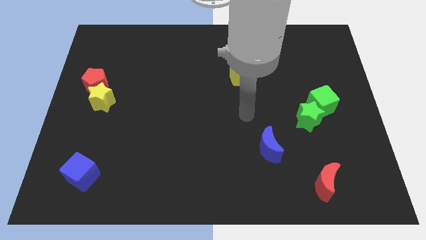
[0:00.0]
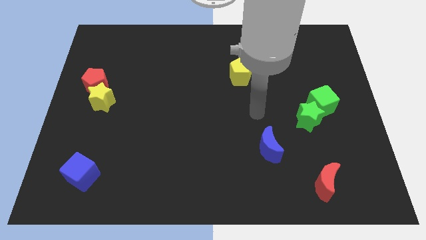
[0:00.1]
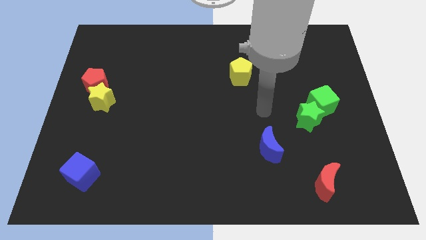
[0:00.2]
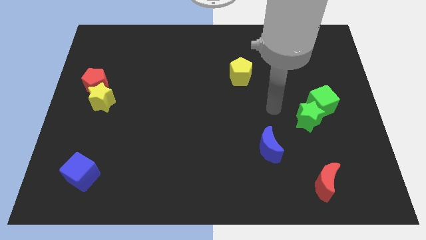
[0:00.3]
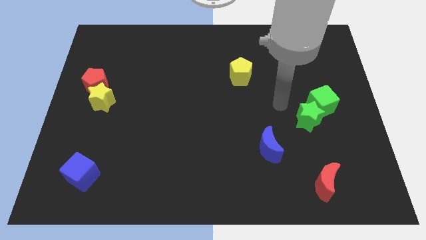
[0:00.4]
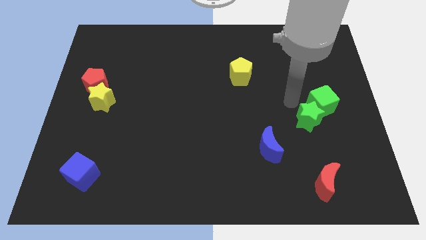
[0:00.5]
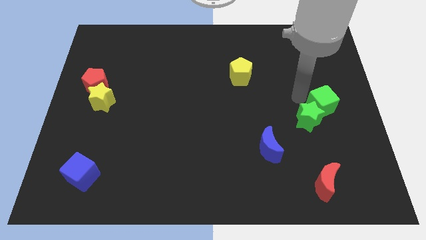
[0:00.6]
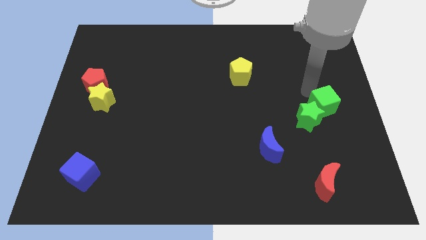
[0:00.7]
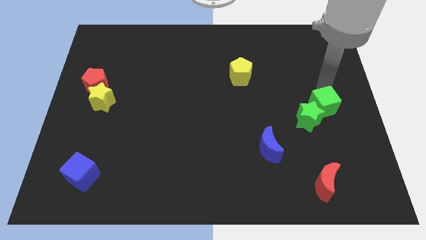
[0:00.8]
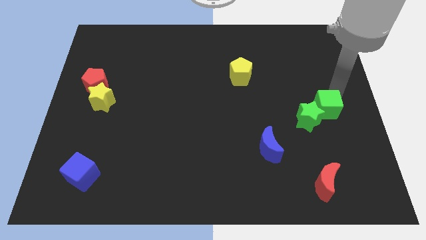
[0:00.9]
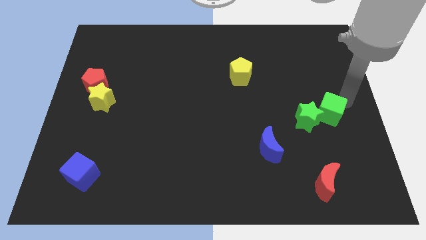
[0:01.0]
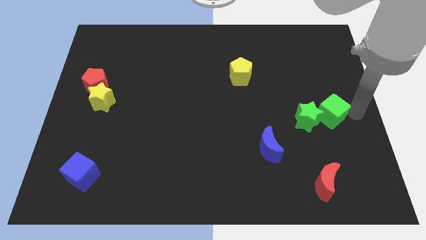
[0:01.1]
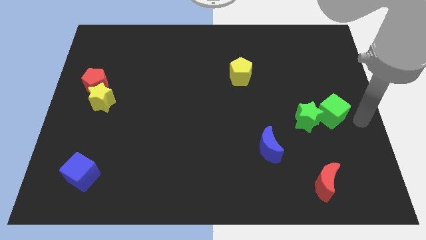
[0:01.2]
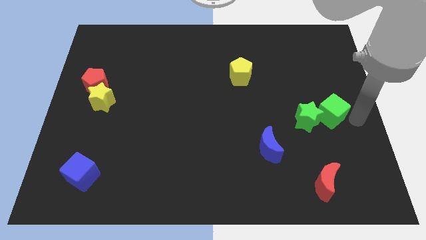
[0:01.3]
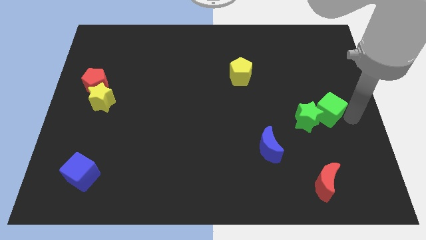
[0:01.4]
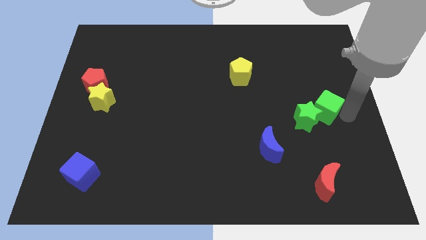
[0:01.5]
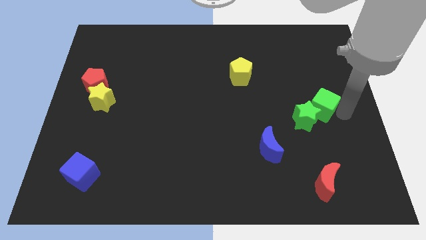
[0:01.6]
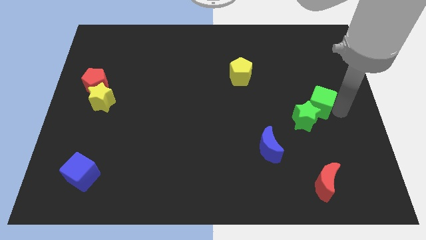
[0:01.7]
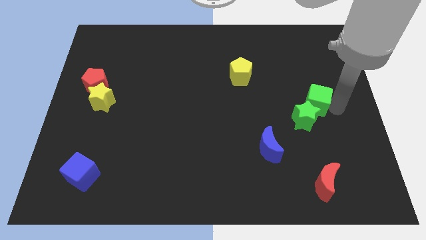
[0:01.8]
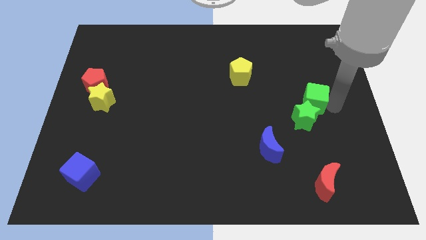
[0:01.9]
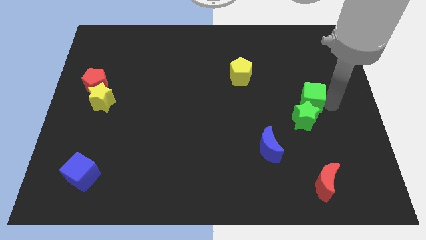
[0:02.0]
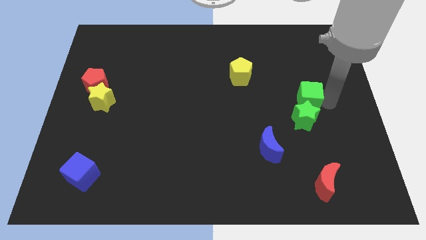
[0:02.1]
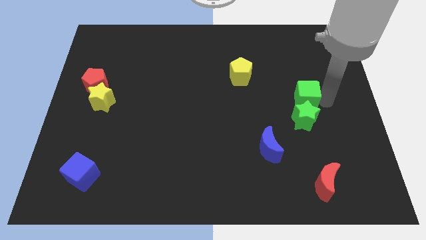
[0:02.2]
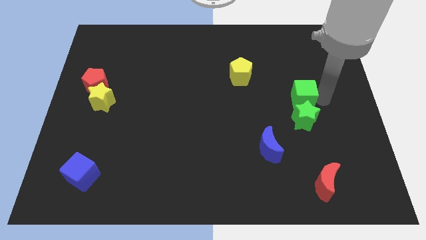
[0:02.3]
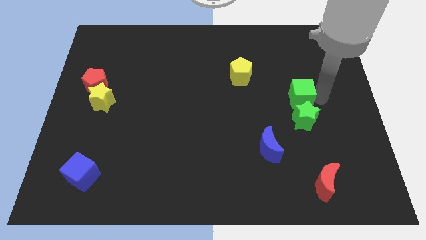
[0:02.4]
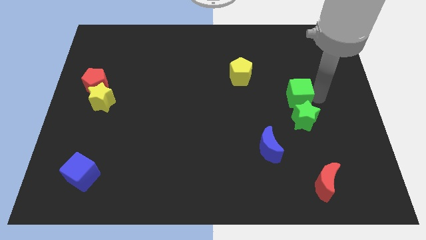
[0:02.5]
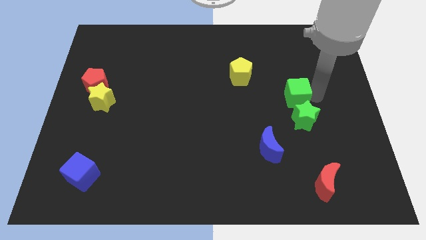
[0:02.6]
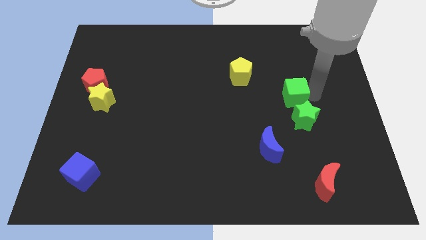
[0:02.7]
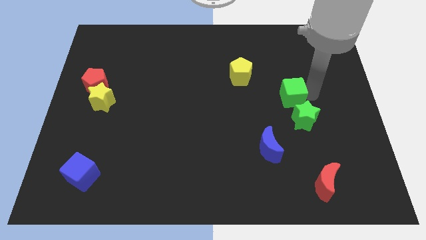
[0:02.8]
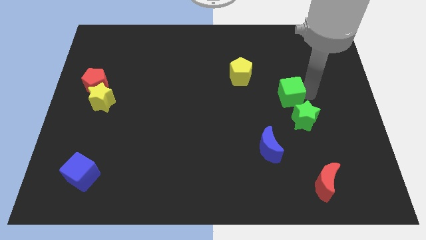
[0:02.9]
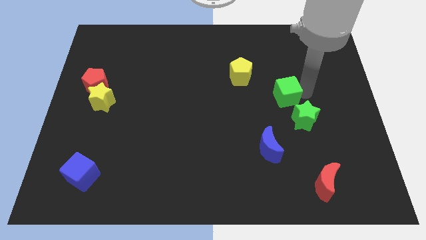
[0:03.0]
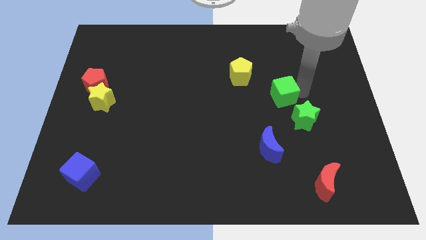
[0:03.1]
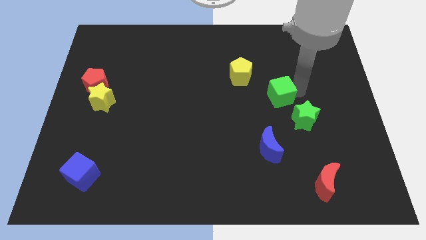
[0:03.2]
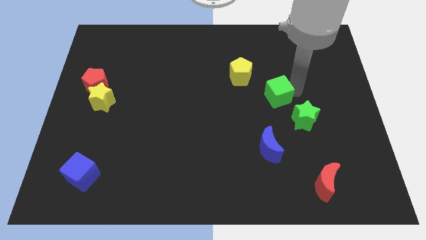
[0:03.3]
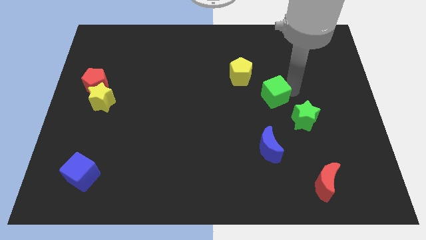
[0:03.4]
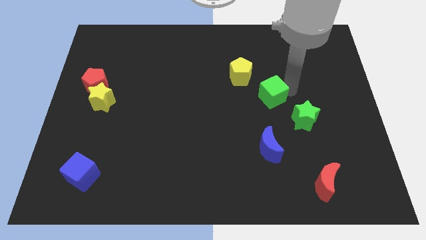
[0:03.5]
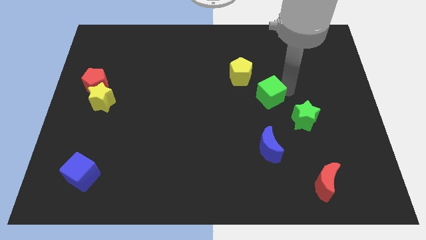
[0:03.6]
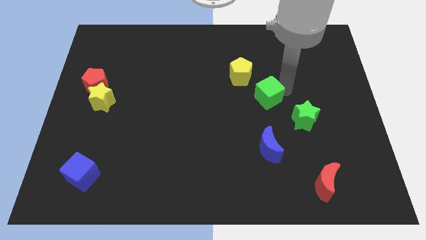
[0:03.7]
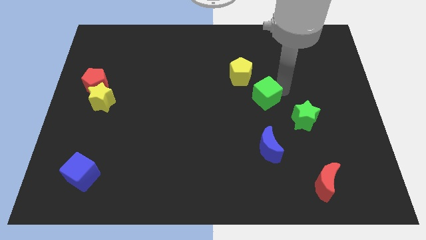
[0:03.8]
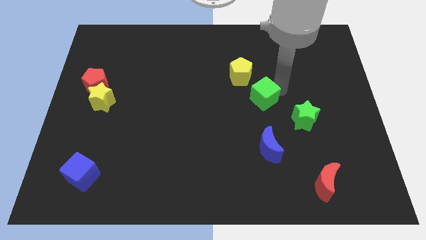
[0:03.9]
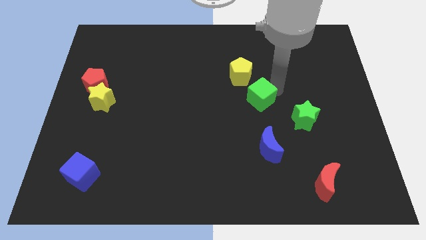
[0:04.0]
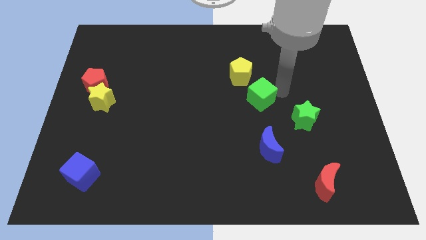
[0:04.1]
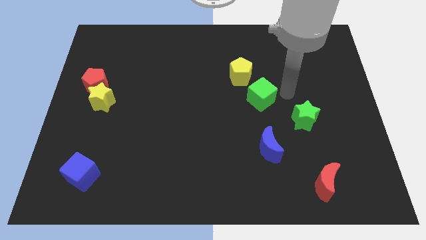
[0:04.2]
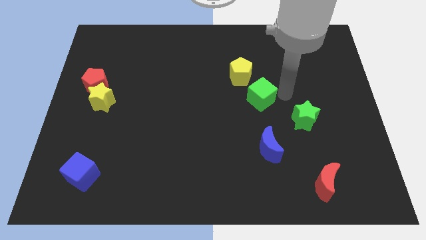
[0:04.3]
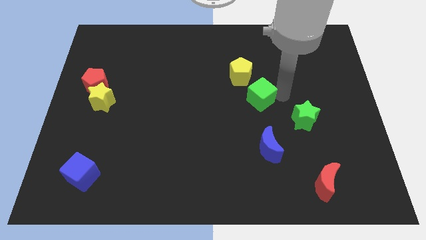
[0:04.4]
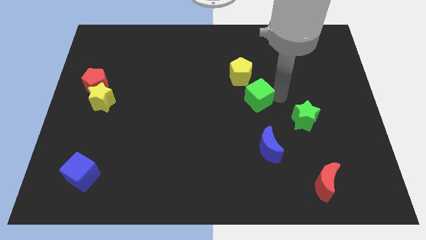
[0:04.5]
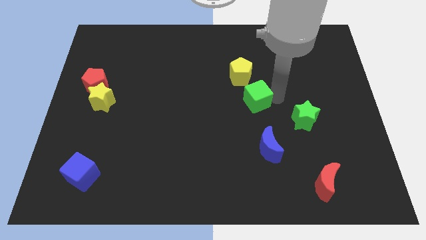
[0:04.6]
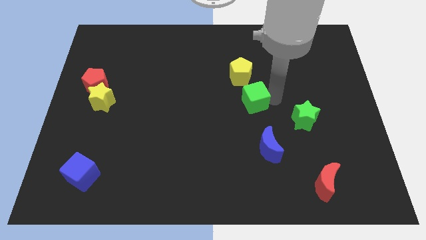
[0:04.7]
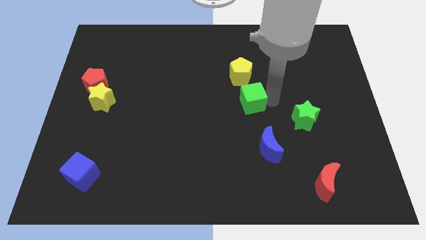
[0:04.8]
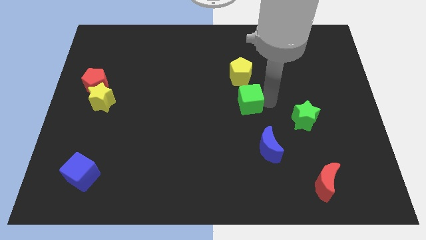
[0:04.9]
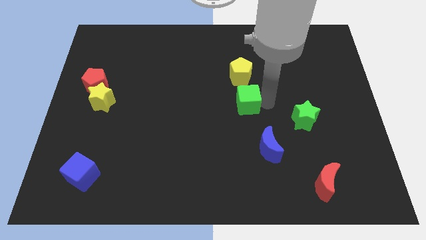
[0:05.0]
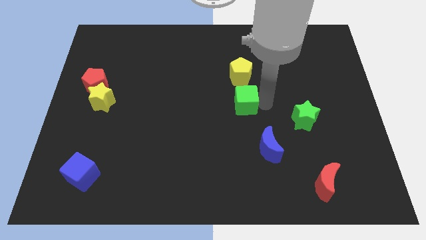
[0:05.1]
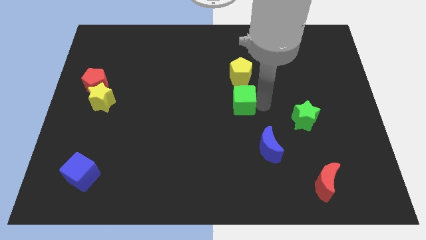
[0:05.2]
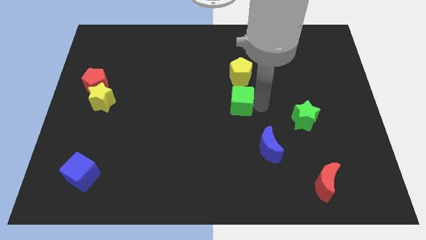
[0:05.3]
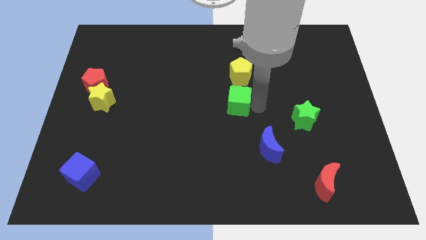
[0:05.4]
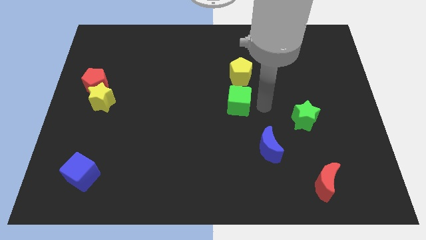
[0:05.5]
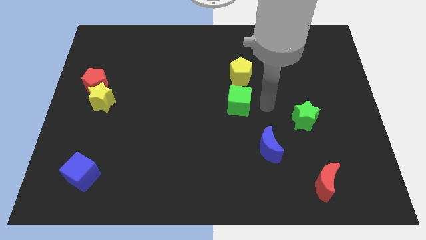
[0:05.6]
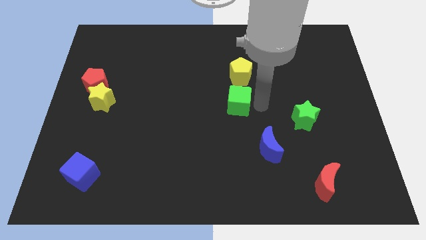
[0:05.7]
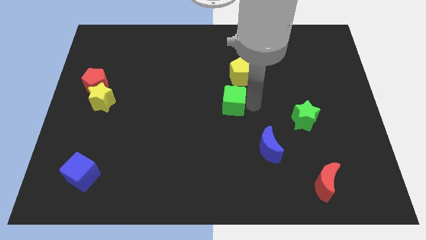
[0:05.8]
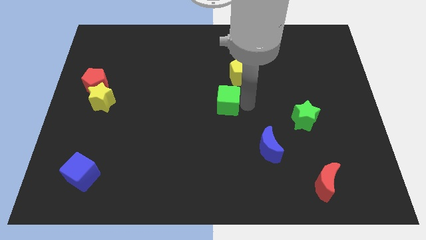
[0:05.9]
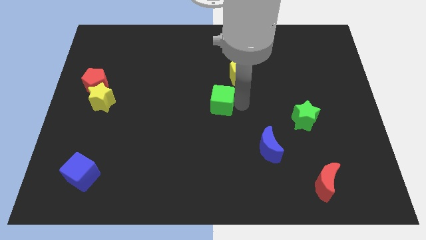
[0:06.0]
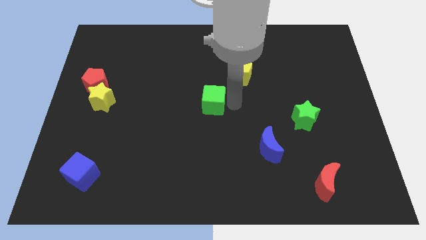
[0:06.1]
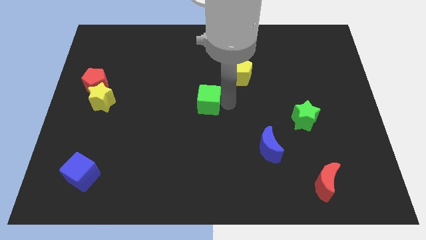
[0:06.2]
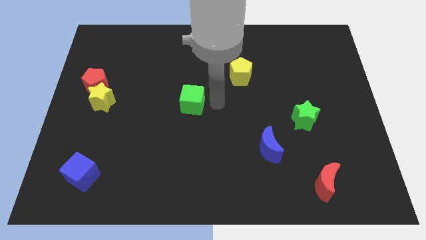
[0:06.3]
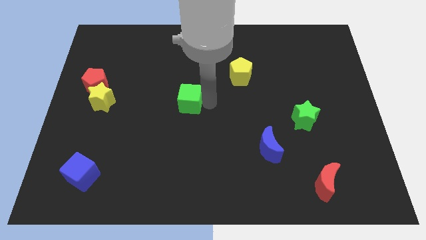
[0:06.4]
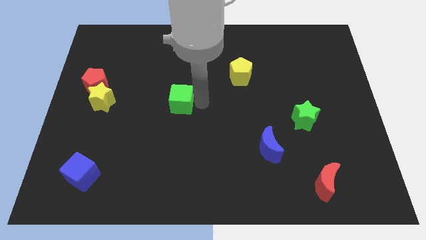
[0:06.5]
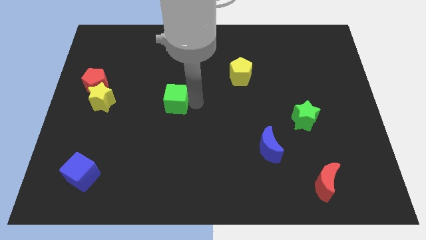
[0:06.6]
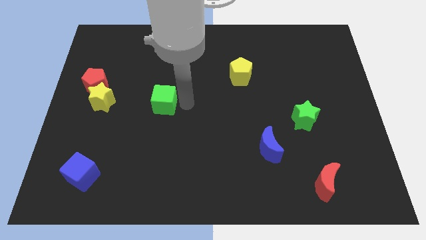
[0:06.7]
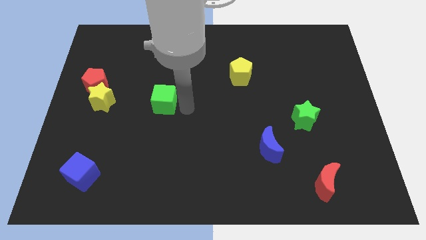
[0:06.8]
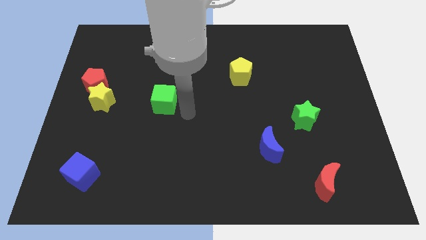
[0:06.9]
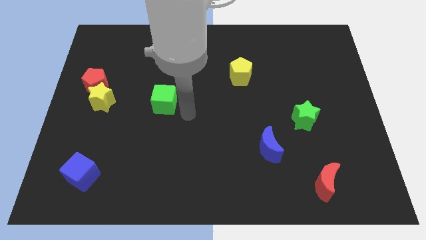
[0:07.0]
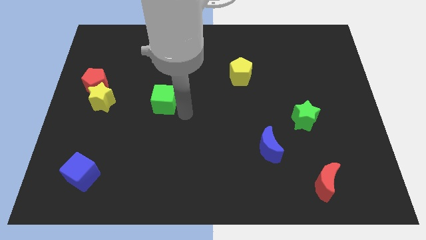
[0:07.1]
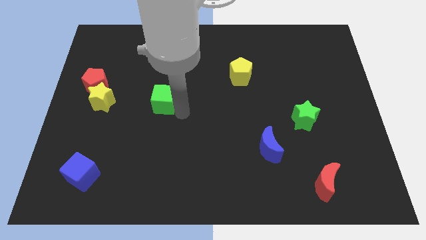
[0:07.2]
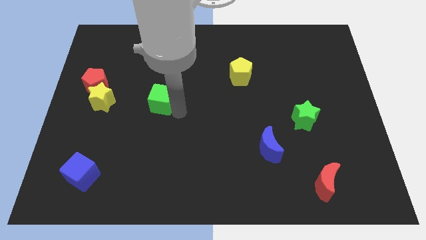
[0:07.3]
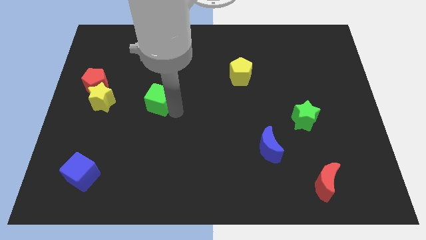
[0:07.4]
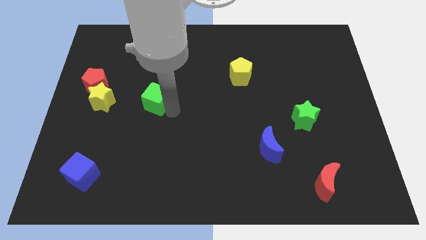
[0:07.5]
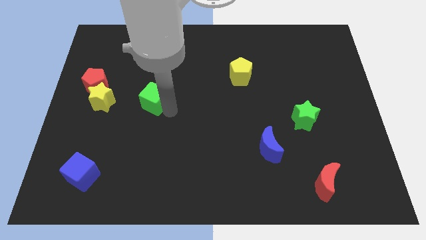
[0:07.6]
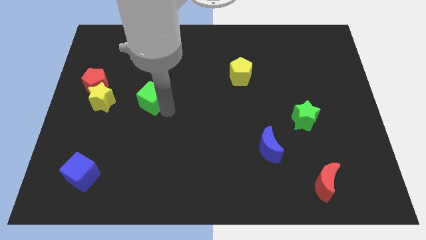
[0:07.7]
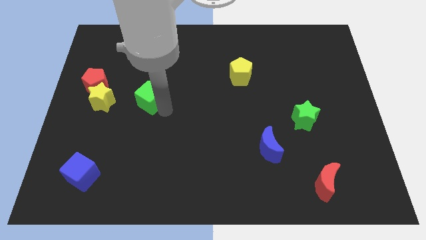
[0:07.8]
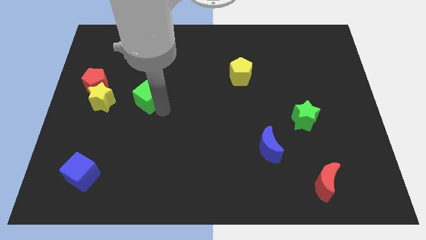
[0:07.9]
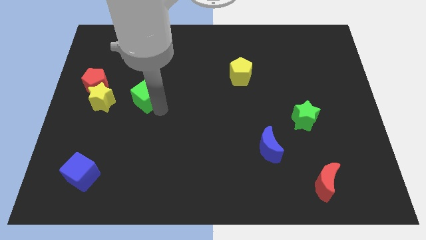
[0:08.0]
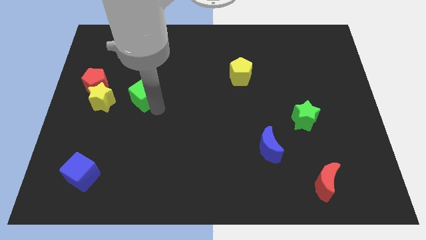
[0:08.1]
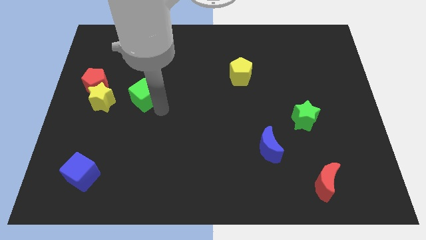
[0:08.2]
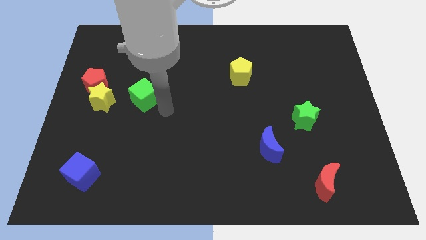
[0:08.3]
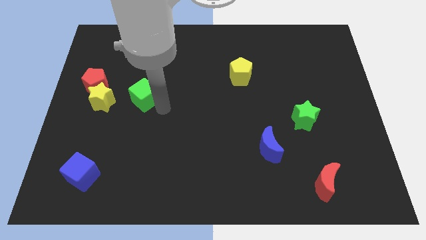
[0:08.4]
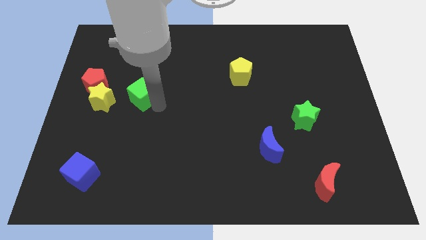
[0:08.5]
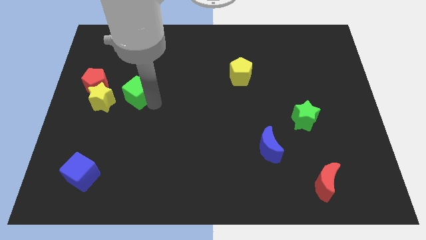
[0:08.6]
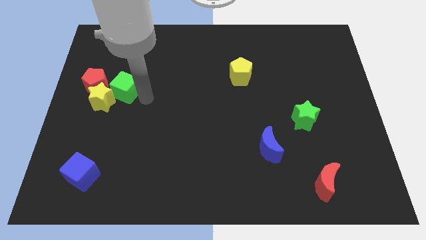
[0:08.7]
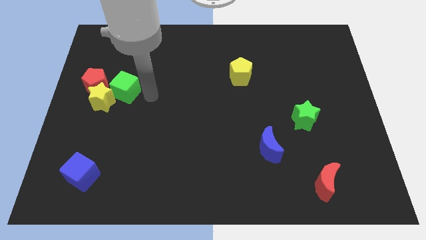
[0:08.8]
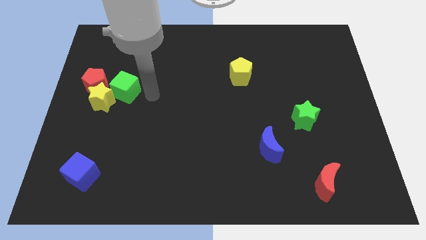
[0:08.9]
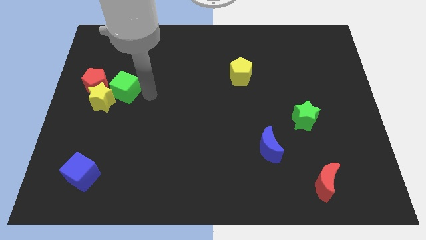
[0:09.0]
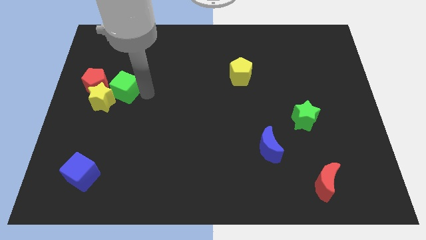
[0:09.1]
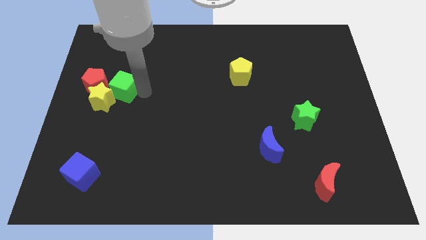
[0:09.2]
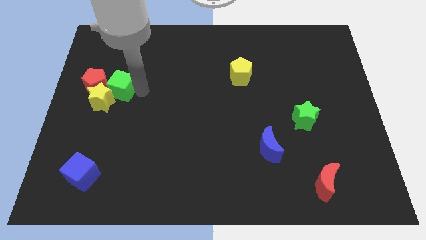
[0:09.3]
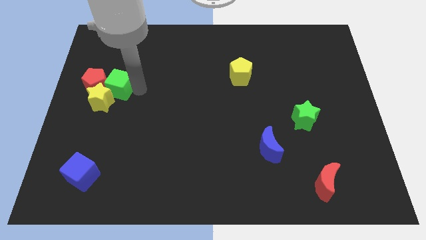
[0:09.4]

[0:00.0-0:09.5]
put the green cube close to the red pentagon
